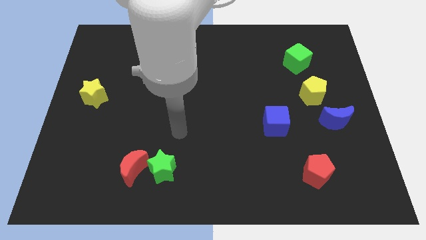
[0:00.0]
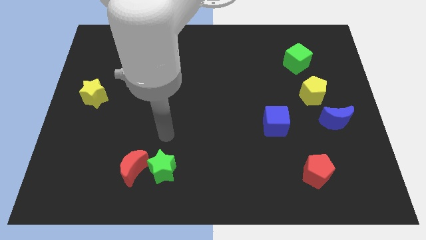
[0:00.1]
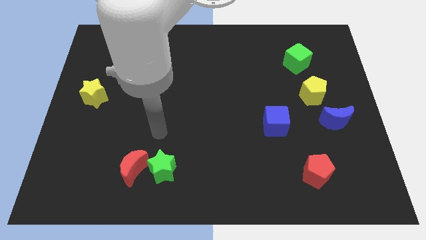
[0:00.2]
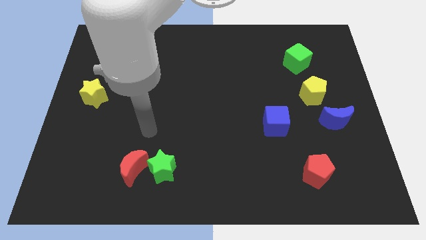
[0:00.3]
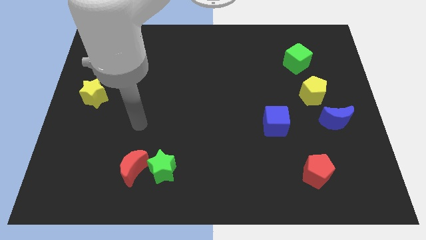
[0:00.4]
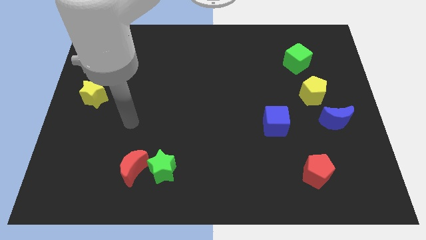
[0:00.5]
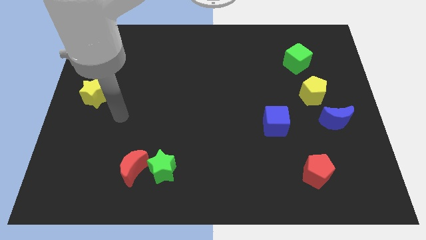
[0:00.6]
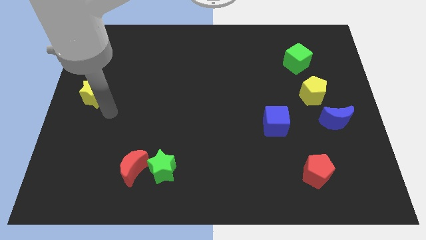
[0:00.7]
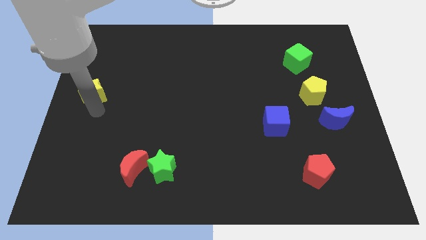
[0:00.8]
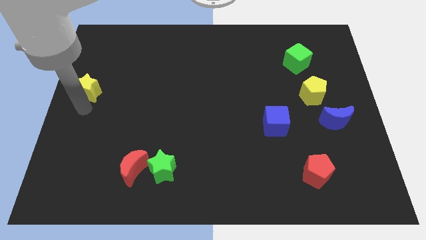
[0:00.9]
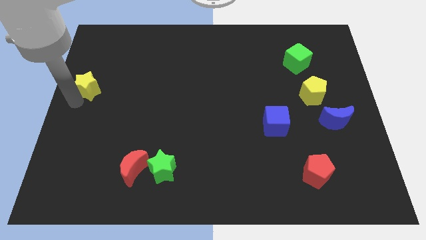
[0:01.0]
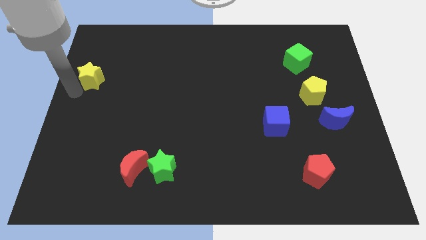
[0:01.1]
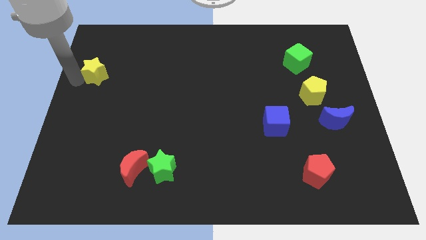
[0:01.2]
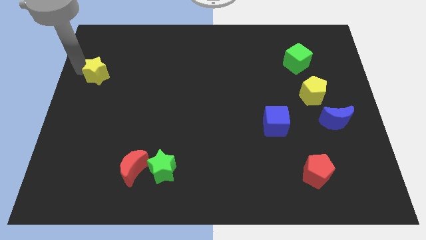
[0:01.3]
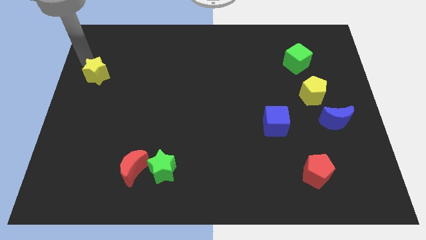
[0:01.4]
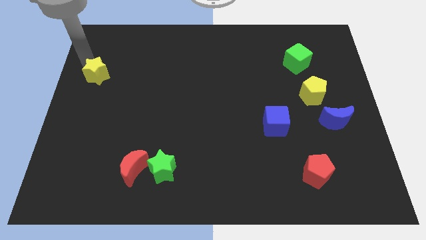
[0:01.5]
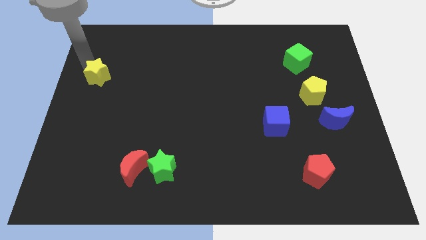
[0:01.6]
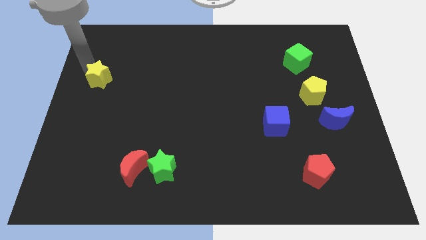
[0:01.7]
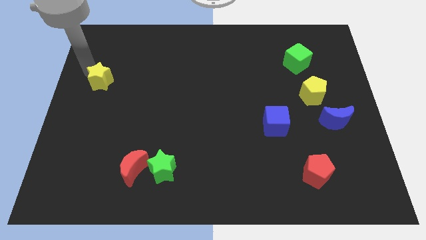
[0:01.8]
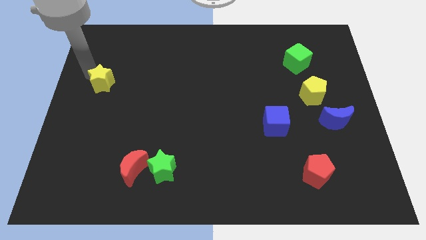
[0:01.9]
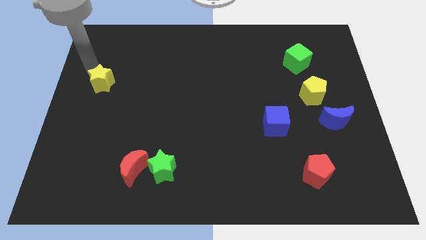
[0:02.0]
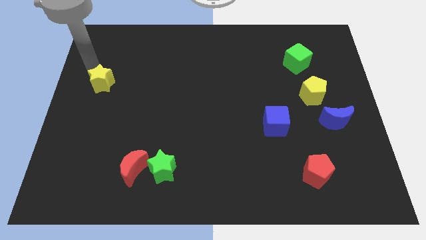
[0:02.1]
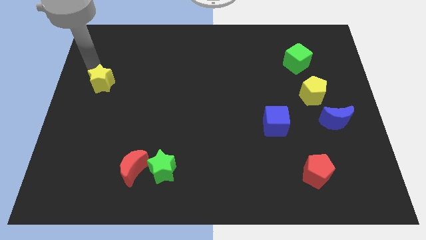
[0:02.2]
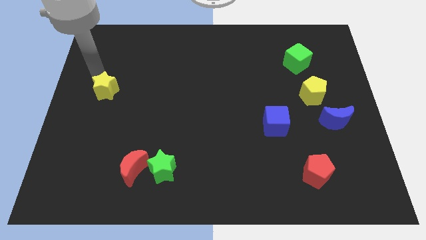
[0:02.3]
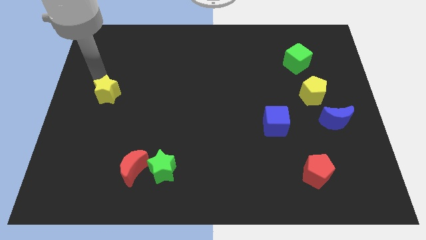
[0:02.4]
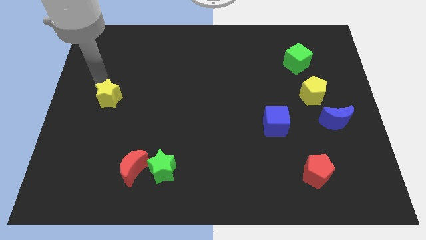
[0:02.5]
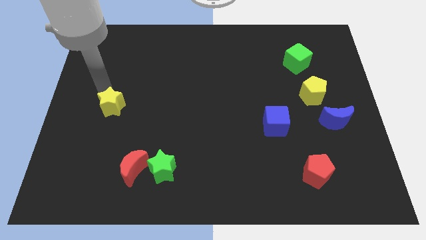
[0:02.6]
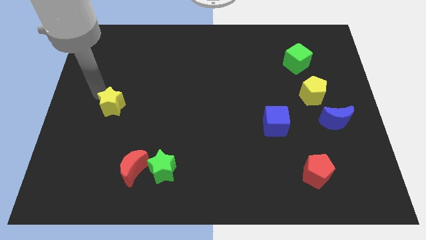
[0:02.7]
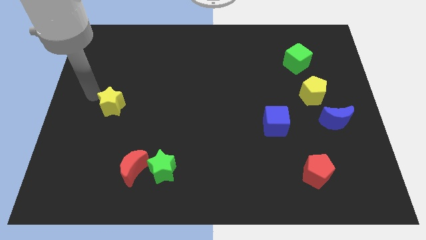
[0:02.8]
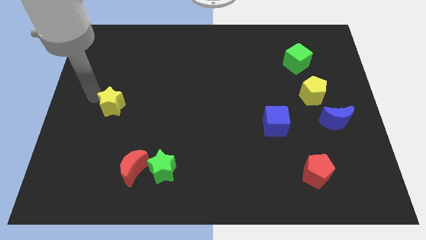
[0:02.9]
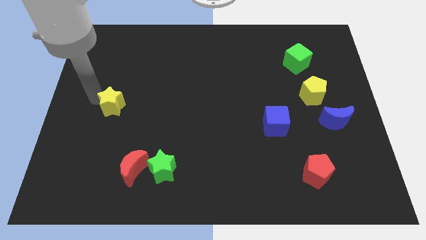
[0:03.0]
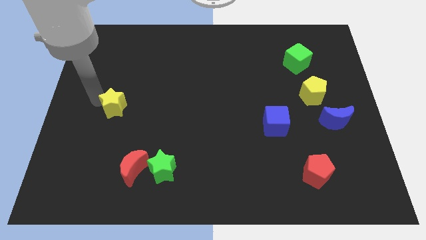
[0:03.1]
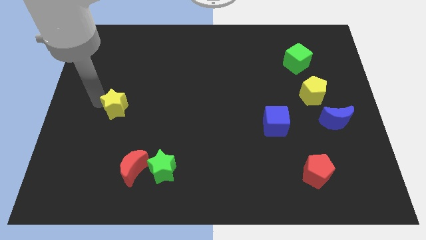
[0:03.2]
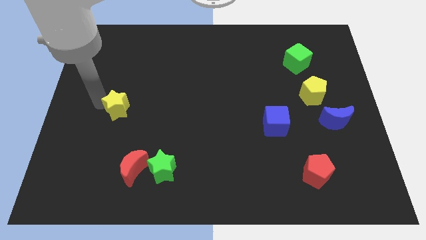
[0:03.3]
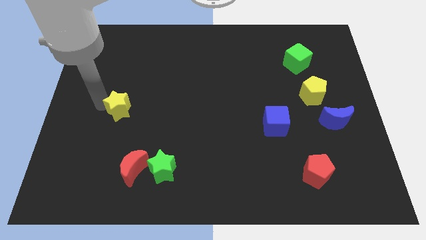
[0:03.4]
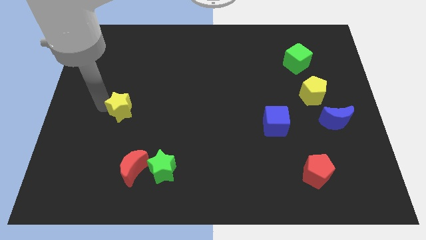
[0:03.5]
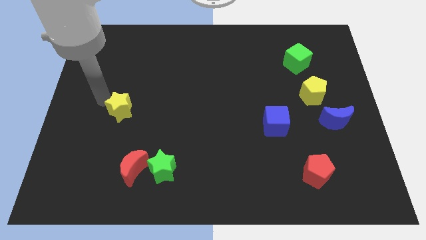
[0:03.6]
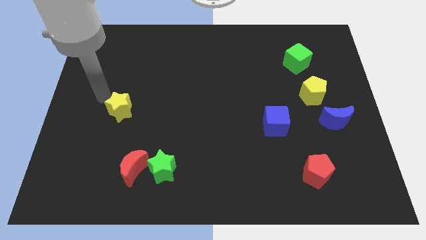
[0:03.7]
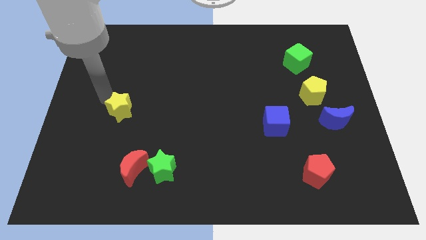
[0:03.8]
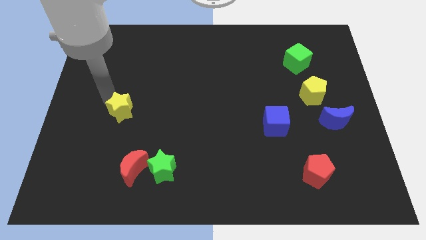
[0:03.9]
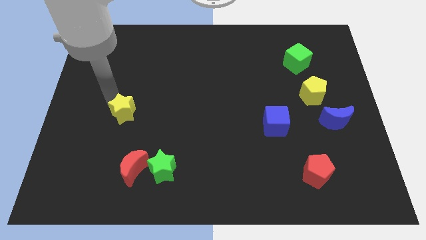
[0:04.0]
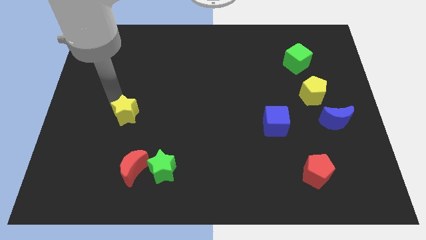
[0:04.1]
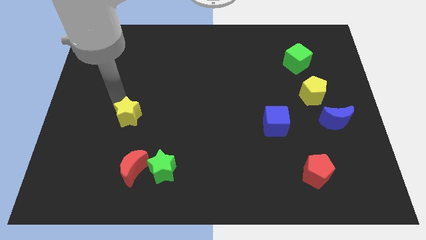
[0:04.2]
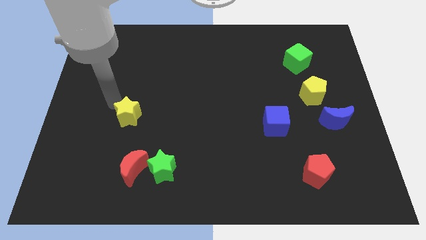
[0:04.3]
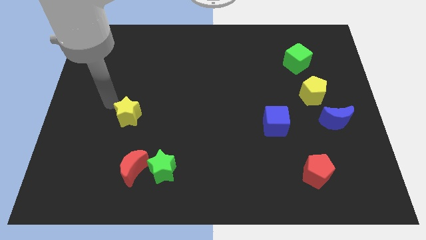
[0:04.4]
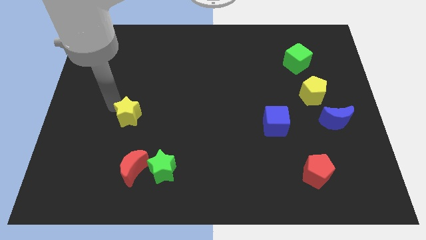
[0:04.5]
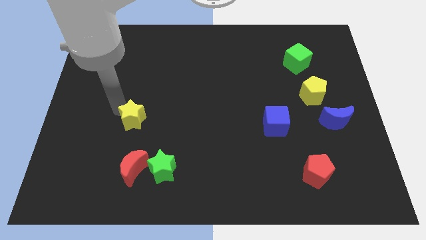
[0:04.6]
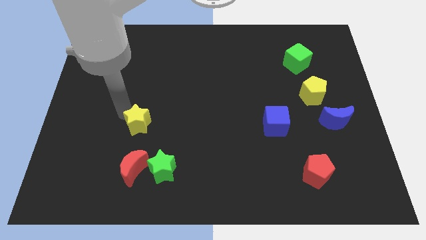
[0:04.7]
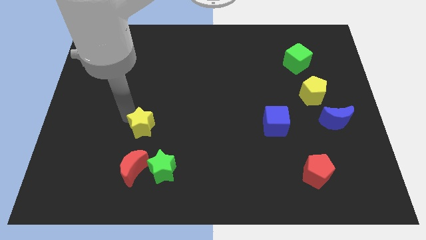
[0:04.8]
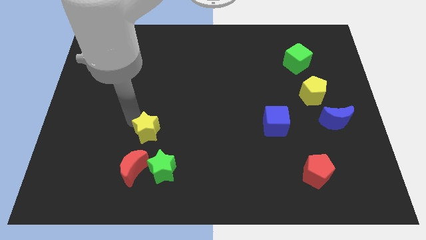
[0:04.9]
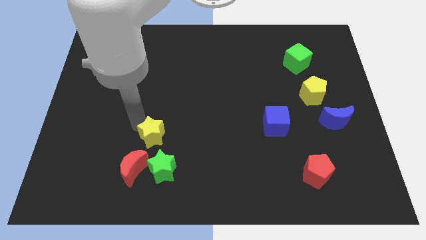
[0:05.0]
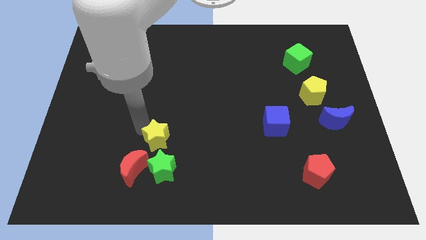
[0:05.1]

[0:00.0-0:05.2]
push the yellow star down and right

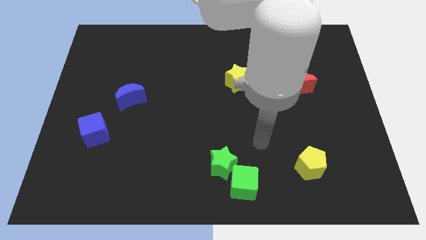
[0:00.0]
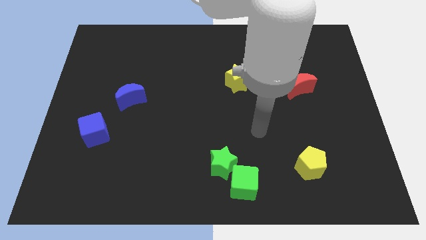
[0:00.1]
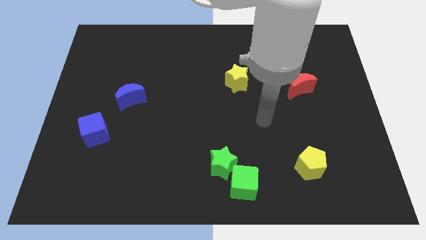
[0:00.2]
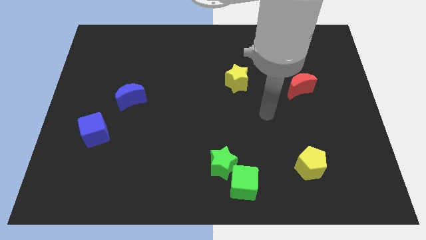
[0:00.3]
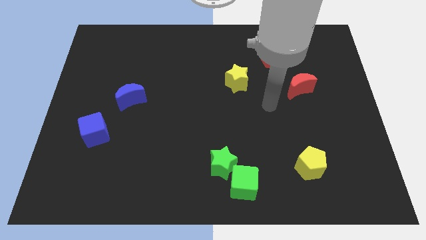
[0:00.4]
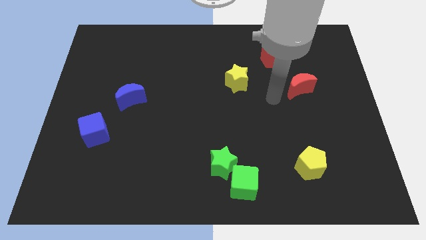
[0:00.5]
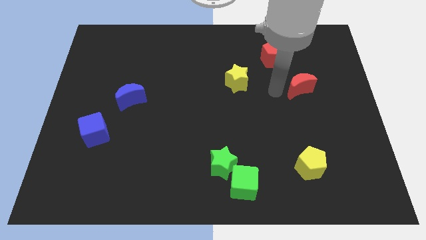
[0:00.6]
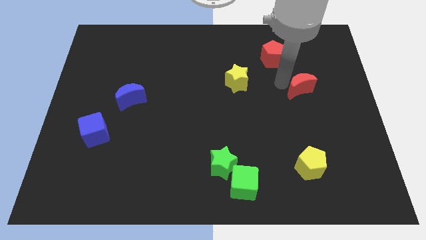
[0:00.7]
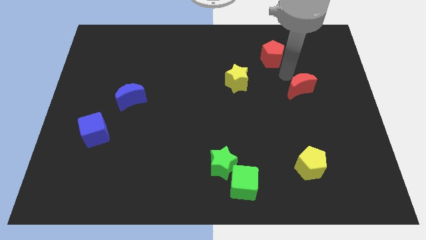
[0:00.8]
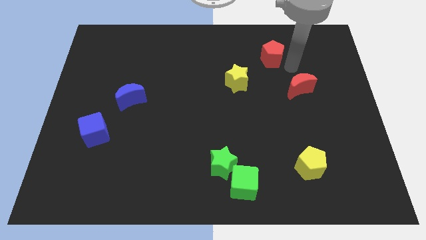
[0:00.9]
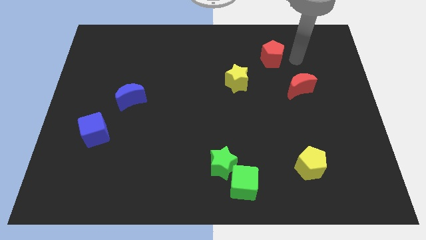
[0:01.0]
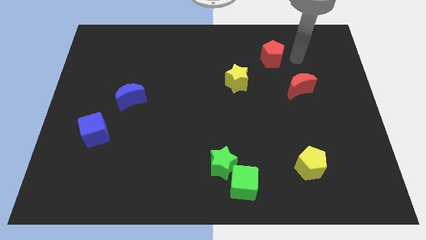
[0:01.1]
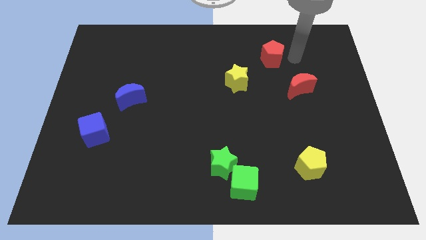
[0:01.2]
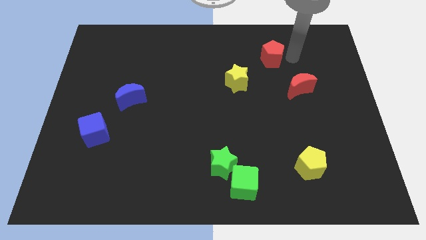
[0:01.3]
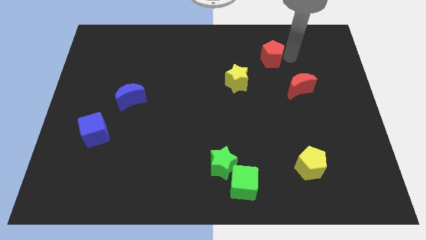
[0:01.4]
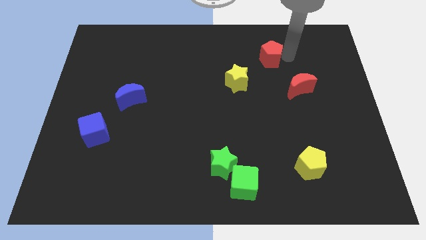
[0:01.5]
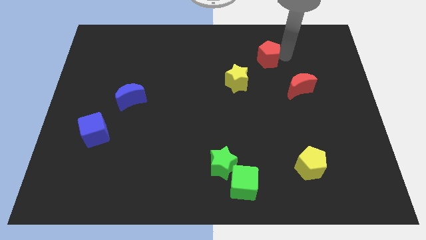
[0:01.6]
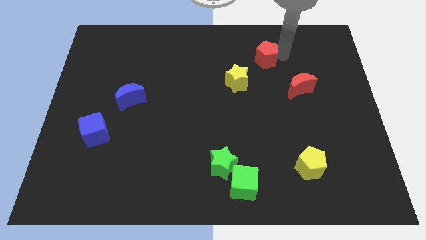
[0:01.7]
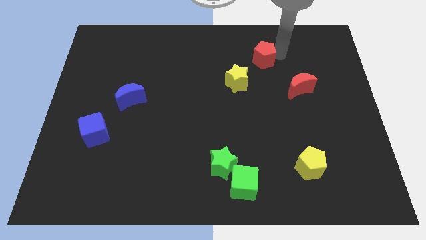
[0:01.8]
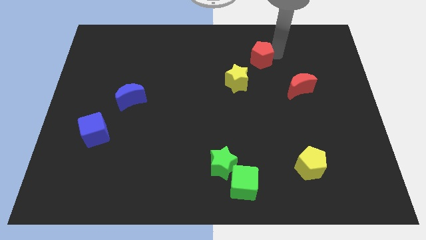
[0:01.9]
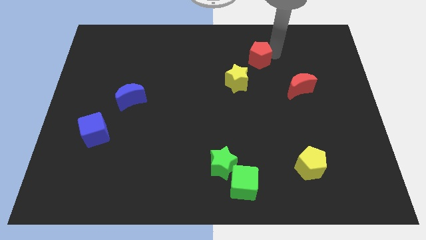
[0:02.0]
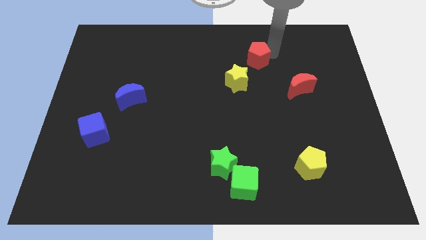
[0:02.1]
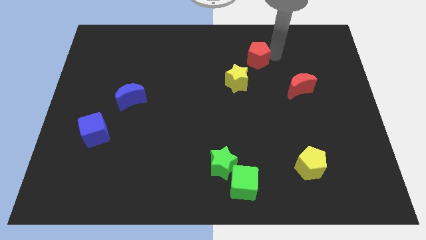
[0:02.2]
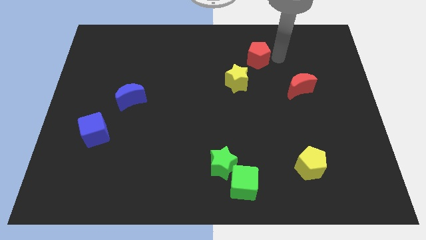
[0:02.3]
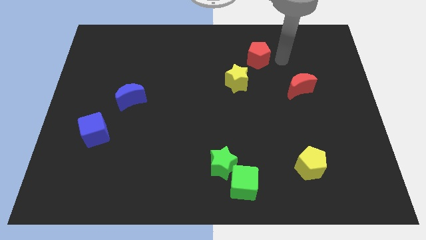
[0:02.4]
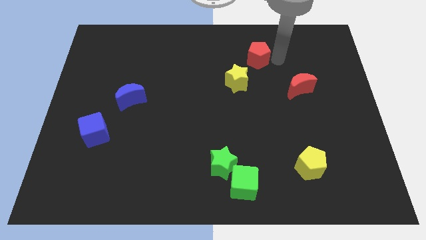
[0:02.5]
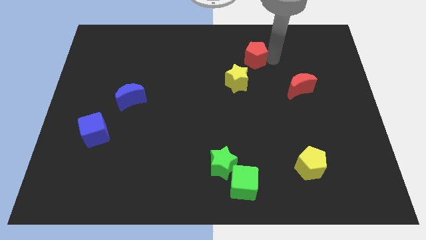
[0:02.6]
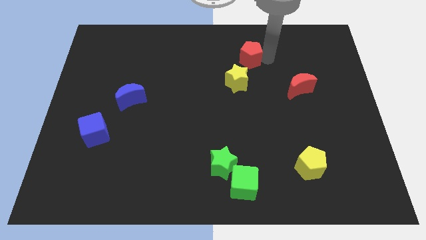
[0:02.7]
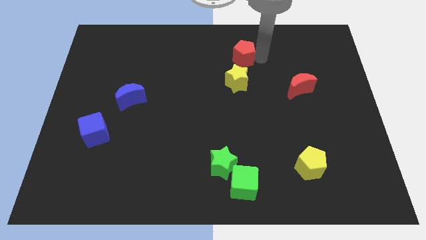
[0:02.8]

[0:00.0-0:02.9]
slightly push the red pentagon left
